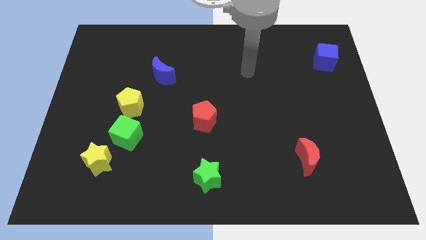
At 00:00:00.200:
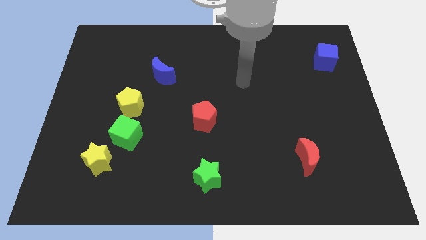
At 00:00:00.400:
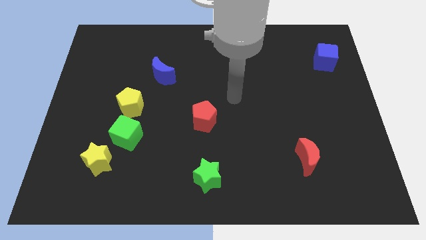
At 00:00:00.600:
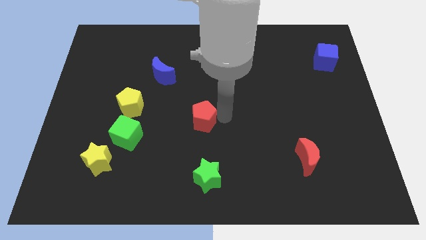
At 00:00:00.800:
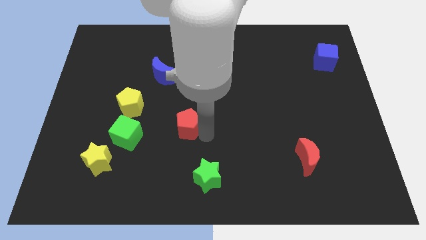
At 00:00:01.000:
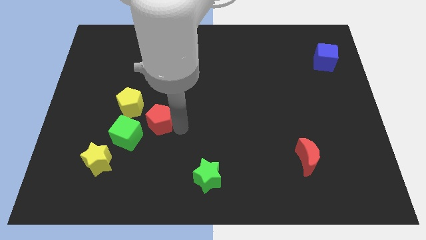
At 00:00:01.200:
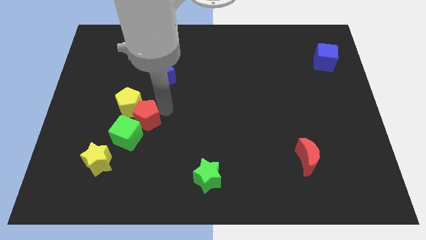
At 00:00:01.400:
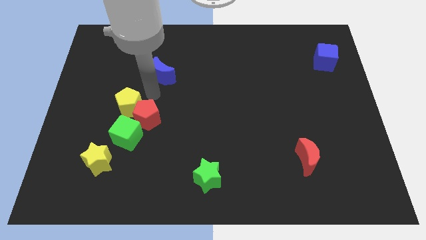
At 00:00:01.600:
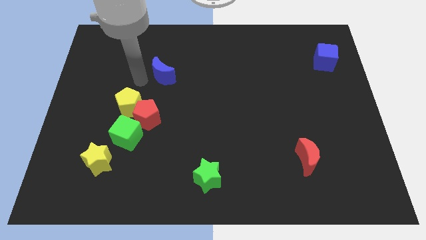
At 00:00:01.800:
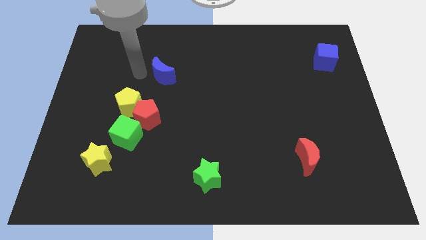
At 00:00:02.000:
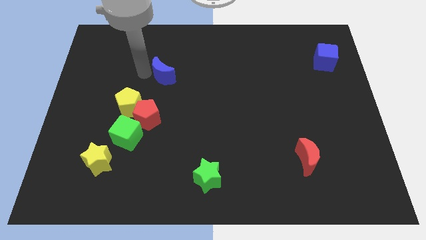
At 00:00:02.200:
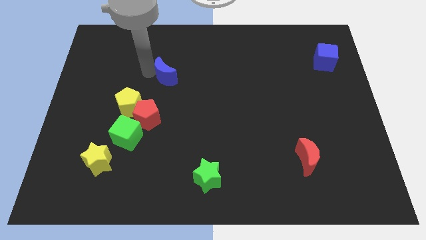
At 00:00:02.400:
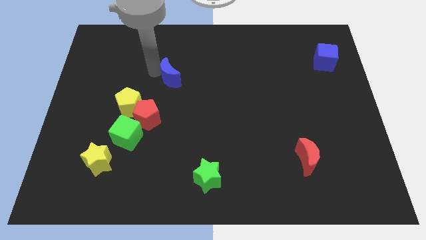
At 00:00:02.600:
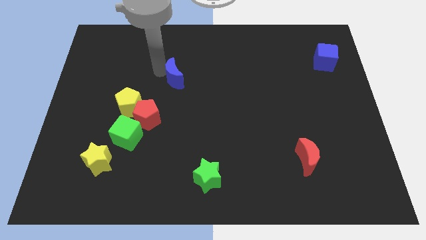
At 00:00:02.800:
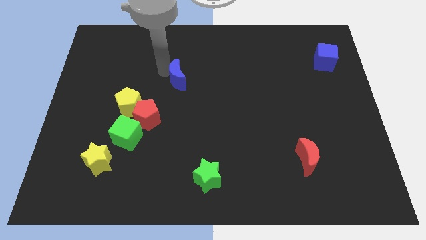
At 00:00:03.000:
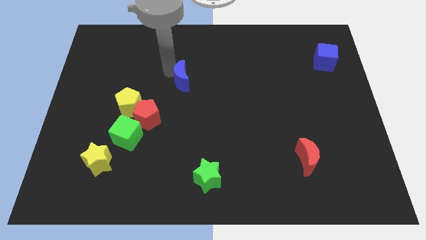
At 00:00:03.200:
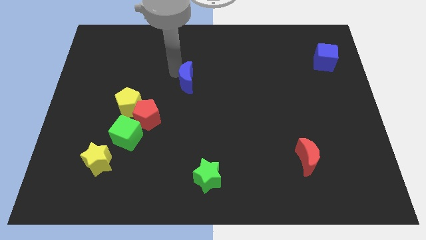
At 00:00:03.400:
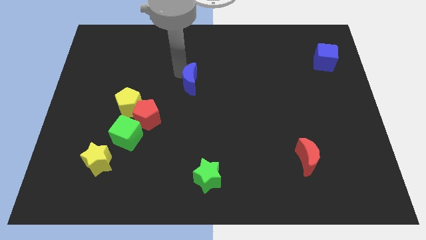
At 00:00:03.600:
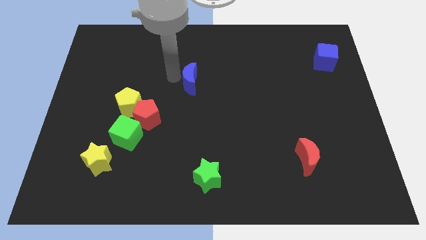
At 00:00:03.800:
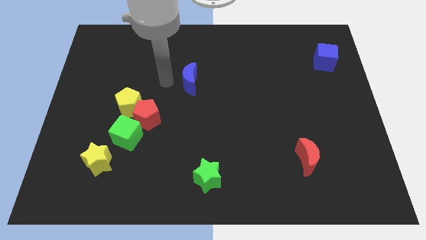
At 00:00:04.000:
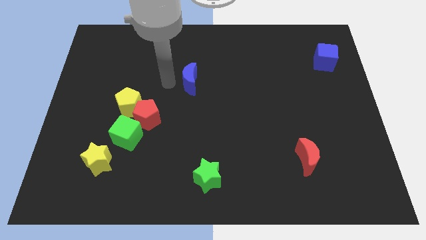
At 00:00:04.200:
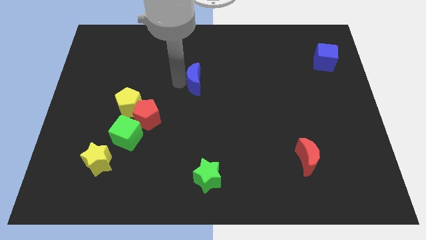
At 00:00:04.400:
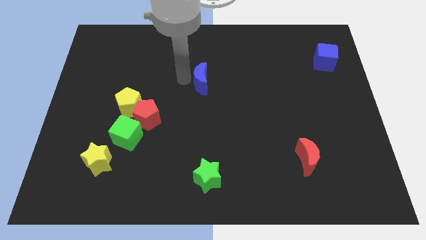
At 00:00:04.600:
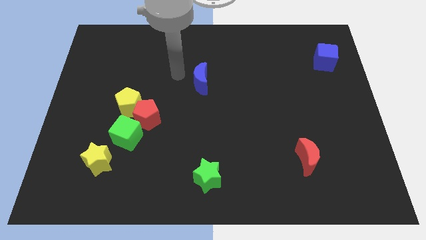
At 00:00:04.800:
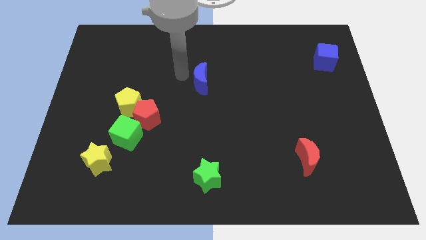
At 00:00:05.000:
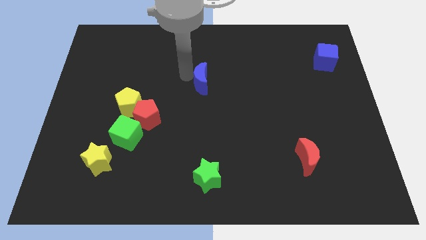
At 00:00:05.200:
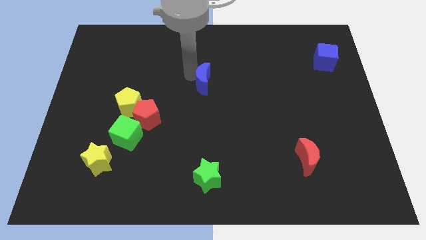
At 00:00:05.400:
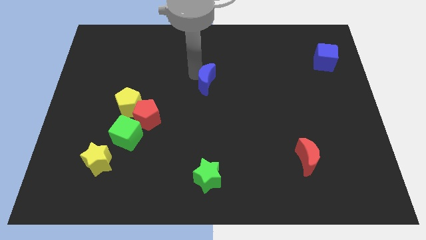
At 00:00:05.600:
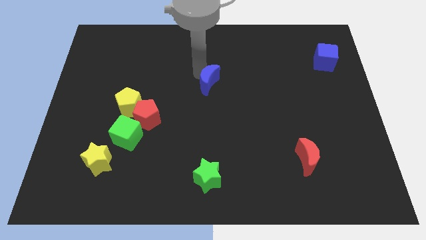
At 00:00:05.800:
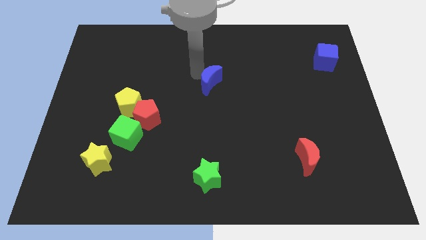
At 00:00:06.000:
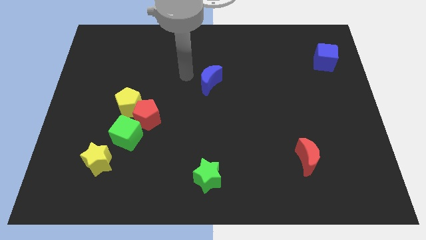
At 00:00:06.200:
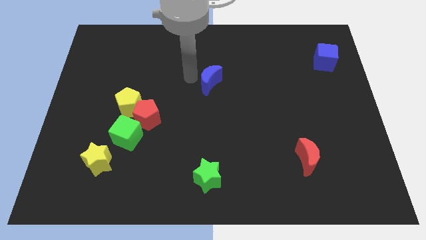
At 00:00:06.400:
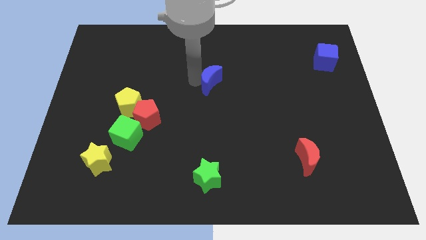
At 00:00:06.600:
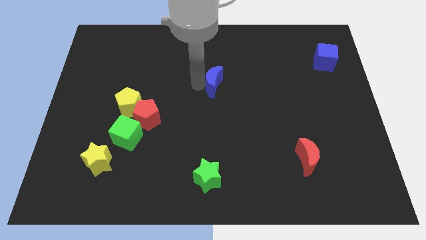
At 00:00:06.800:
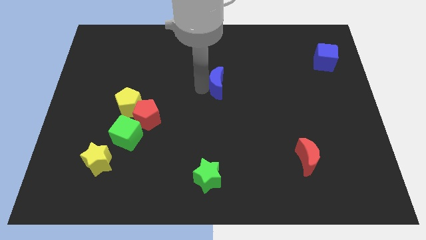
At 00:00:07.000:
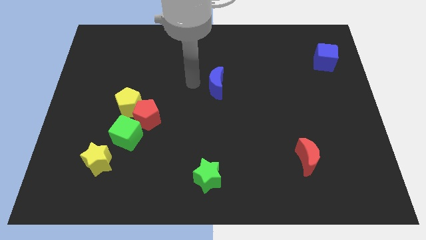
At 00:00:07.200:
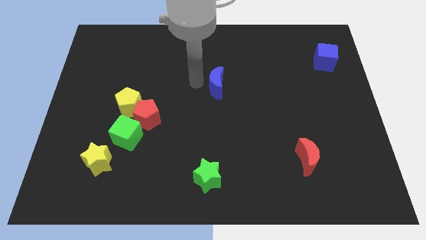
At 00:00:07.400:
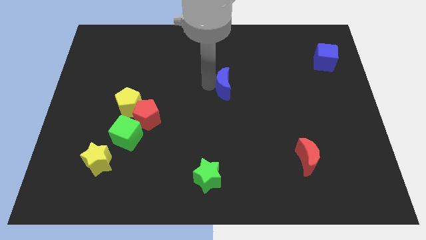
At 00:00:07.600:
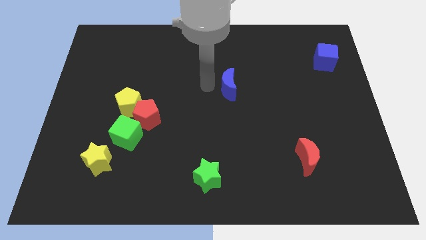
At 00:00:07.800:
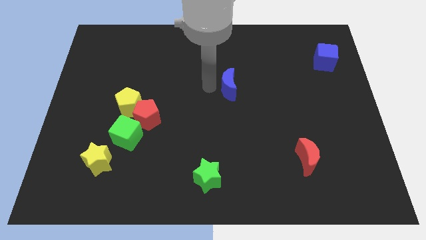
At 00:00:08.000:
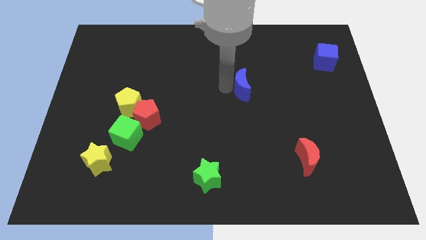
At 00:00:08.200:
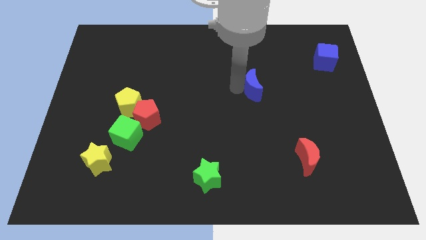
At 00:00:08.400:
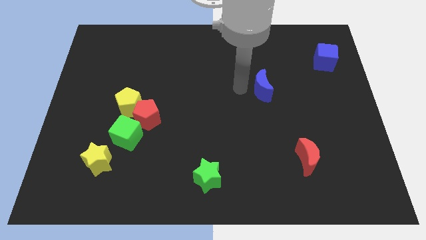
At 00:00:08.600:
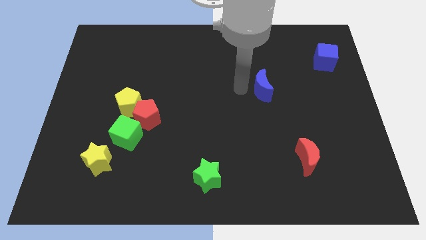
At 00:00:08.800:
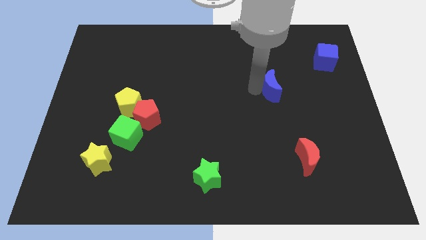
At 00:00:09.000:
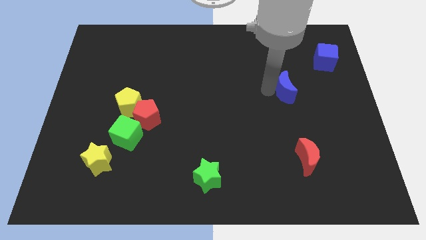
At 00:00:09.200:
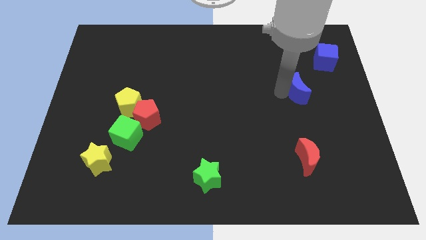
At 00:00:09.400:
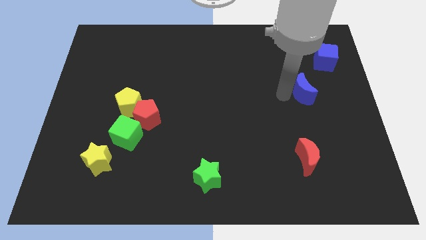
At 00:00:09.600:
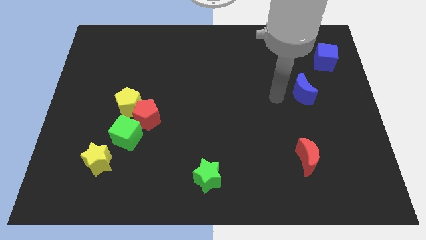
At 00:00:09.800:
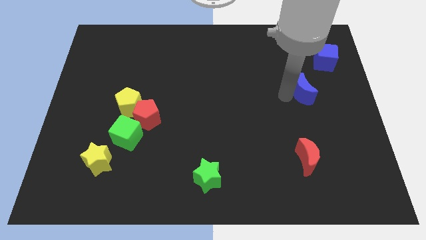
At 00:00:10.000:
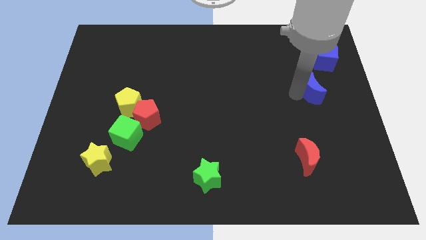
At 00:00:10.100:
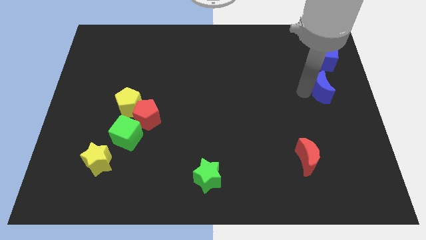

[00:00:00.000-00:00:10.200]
move the blue moon to the center right

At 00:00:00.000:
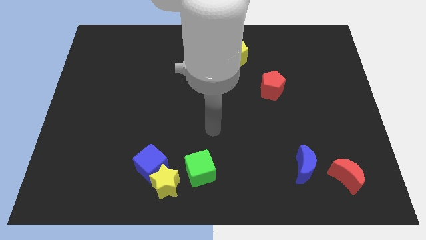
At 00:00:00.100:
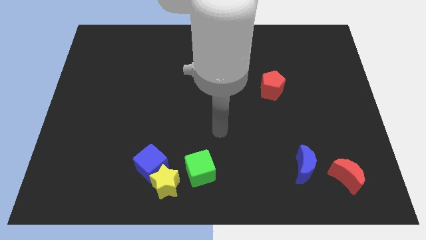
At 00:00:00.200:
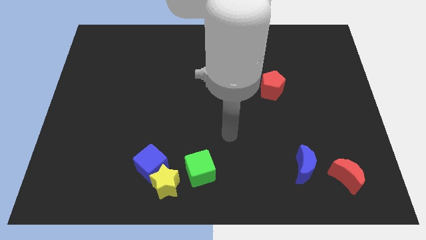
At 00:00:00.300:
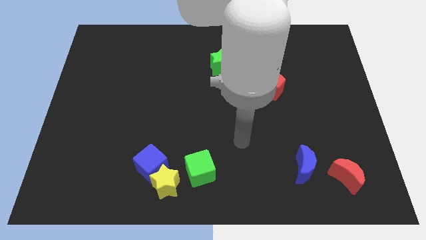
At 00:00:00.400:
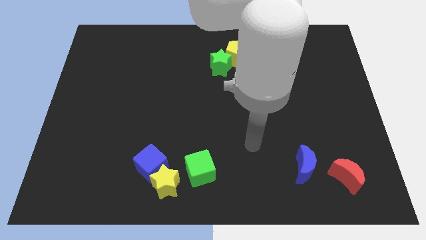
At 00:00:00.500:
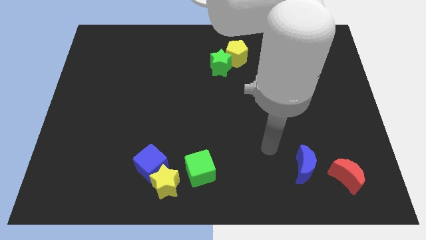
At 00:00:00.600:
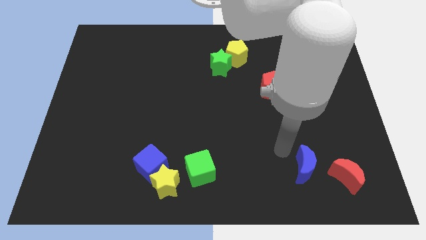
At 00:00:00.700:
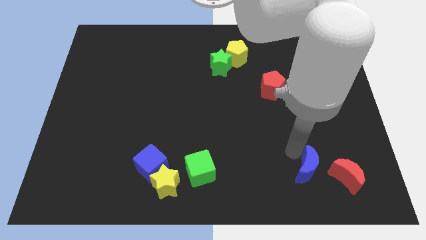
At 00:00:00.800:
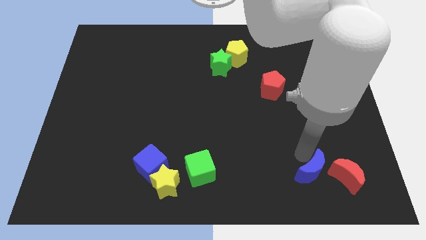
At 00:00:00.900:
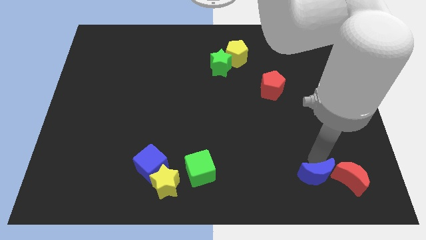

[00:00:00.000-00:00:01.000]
move the red moon to the bottom right

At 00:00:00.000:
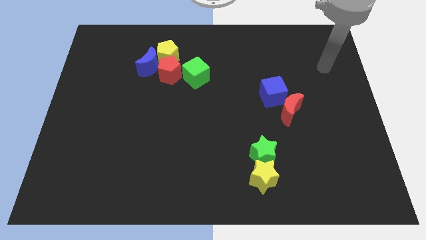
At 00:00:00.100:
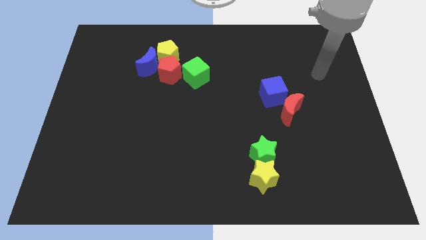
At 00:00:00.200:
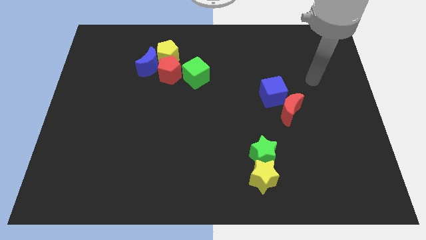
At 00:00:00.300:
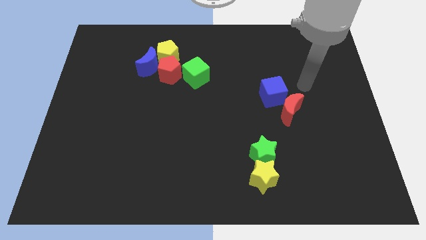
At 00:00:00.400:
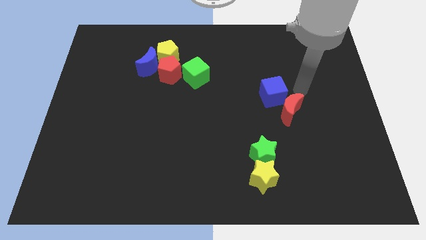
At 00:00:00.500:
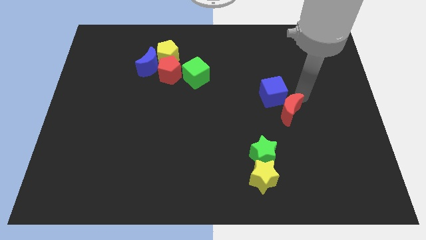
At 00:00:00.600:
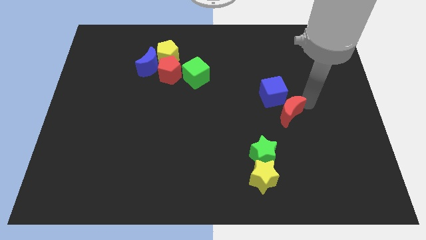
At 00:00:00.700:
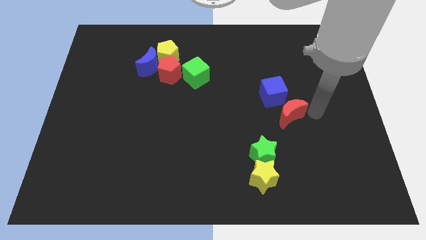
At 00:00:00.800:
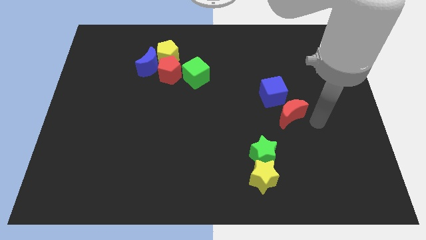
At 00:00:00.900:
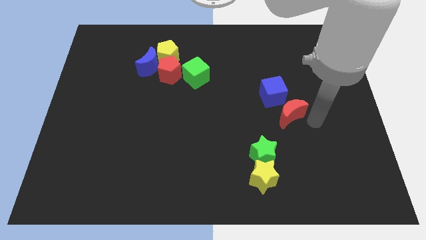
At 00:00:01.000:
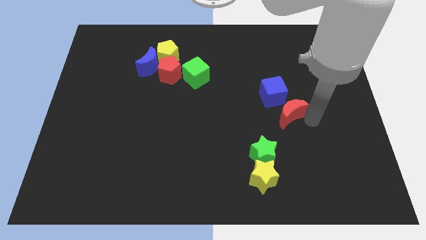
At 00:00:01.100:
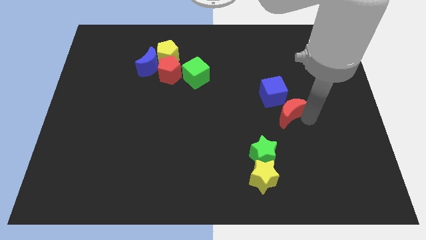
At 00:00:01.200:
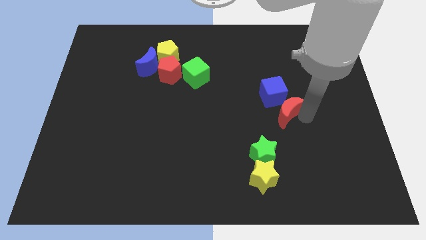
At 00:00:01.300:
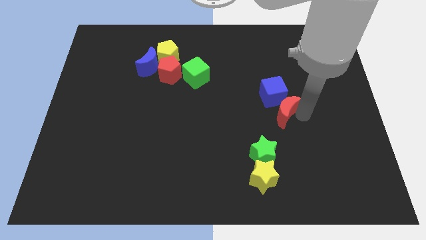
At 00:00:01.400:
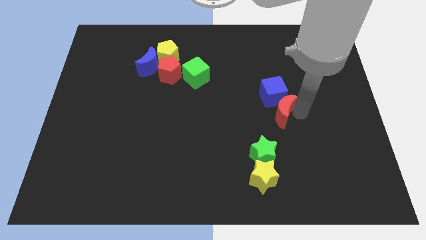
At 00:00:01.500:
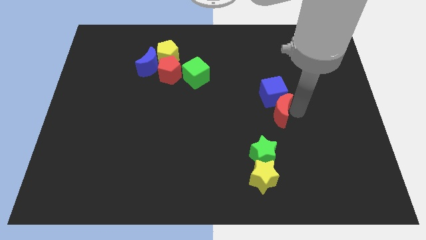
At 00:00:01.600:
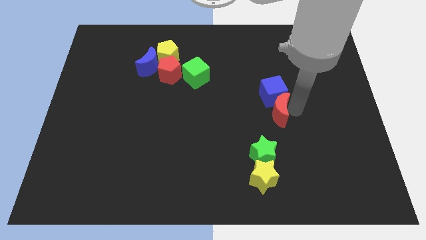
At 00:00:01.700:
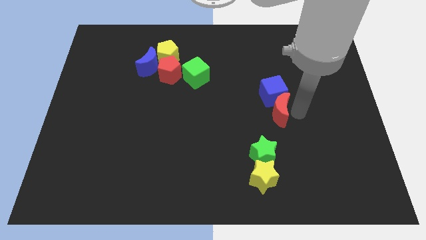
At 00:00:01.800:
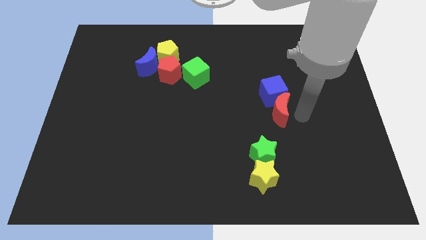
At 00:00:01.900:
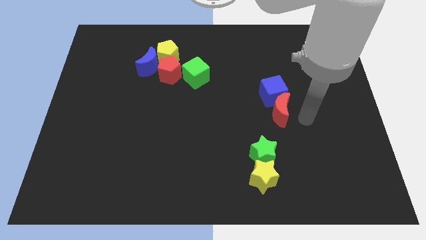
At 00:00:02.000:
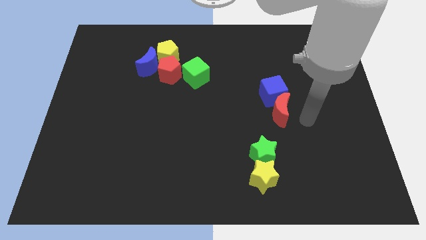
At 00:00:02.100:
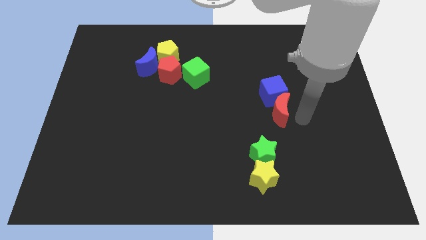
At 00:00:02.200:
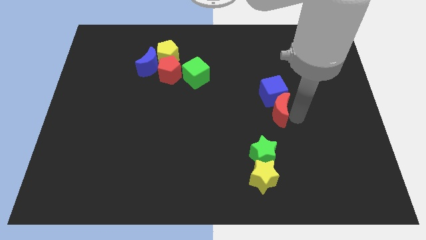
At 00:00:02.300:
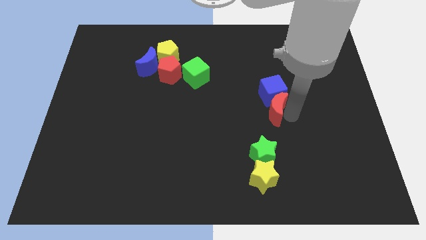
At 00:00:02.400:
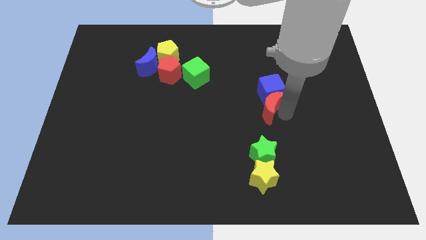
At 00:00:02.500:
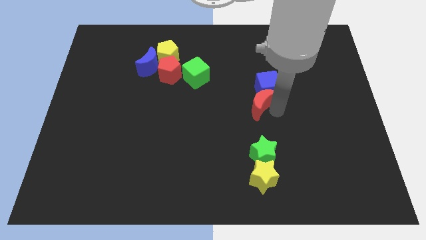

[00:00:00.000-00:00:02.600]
slide the red moon to the center
